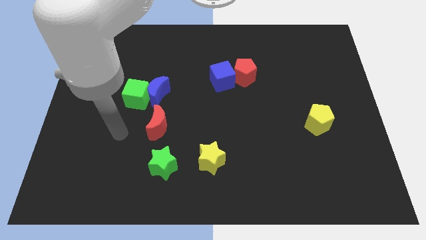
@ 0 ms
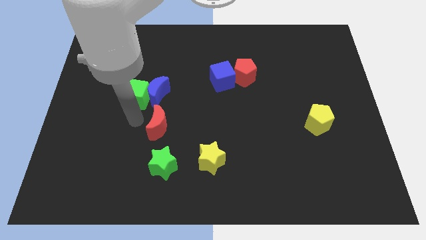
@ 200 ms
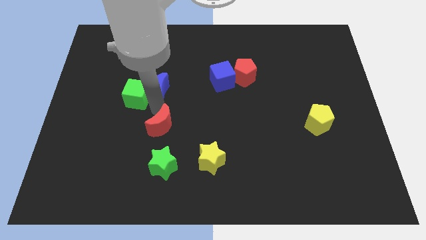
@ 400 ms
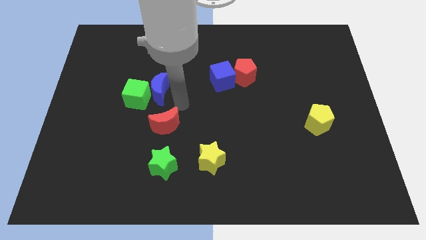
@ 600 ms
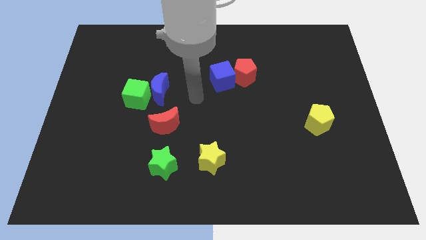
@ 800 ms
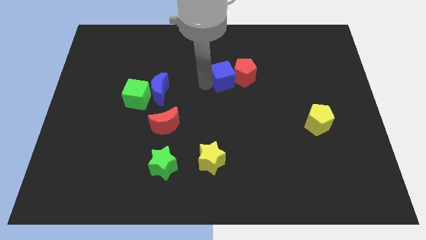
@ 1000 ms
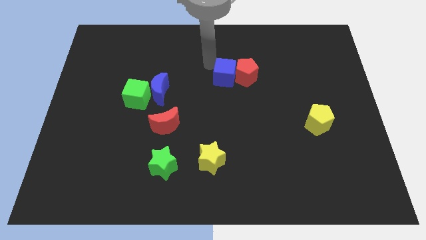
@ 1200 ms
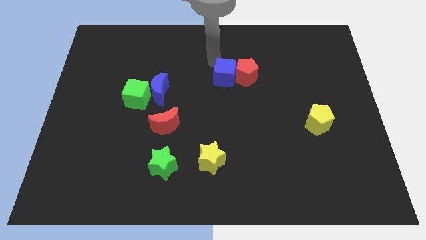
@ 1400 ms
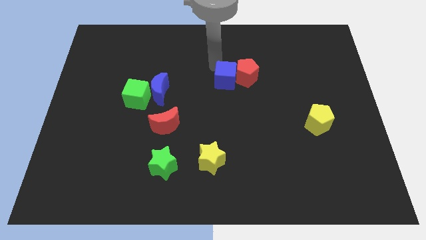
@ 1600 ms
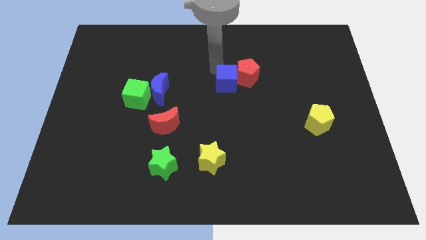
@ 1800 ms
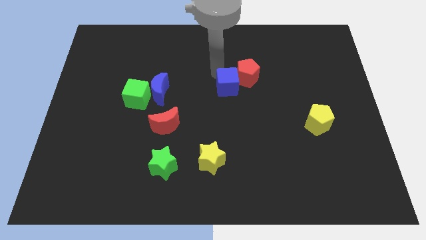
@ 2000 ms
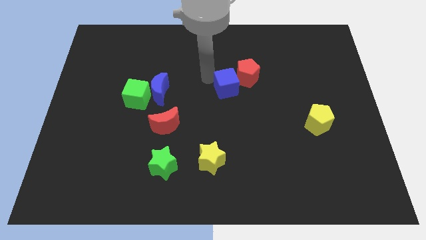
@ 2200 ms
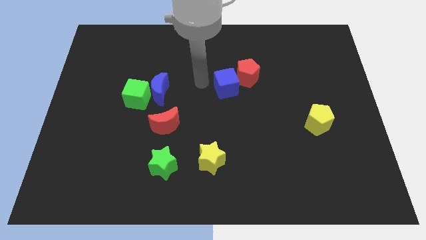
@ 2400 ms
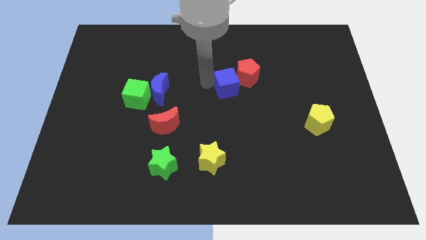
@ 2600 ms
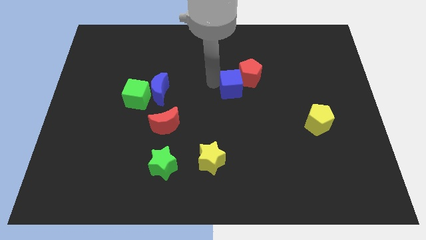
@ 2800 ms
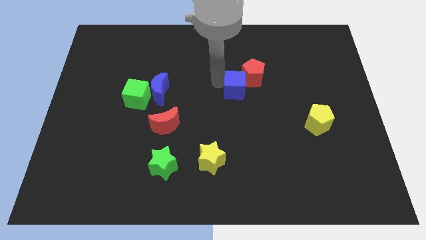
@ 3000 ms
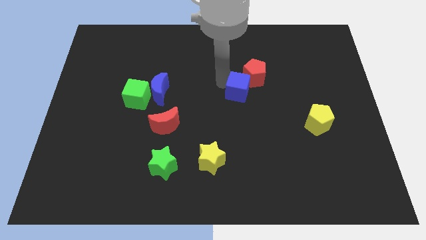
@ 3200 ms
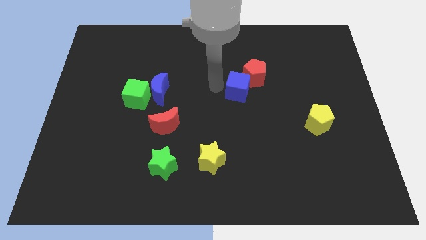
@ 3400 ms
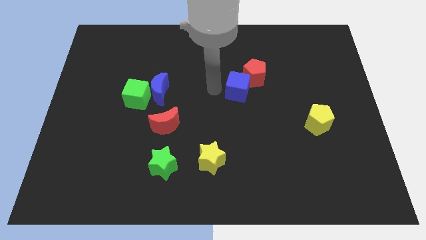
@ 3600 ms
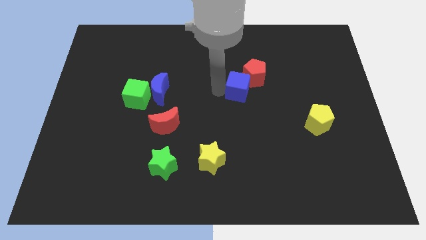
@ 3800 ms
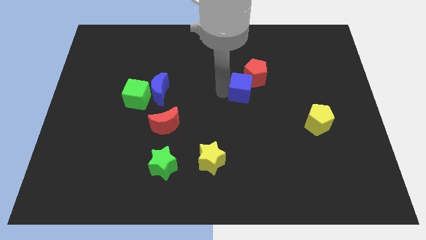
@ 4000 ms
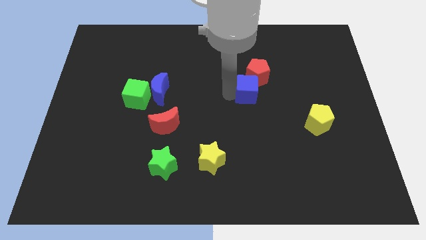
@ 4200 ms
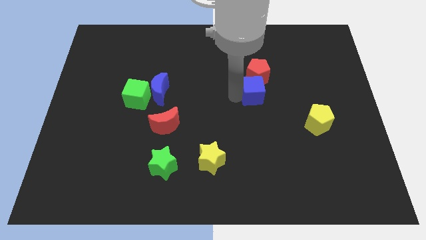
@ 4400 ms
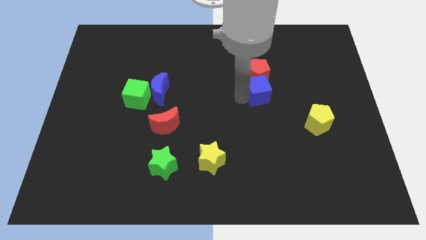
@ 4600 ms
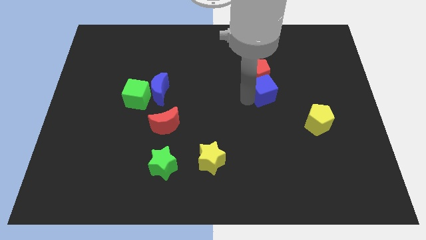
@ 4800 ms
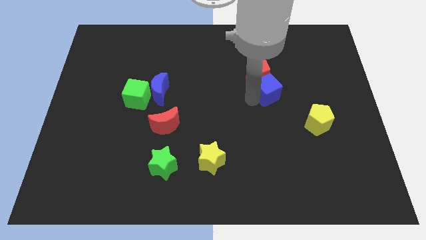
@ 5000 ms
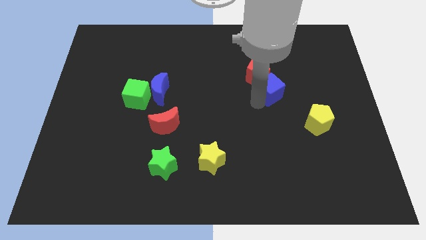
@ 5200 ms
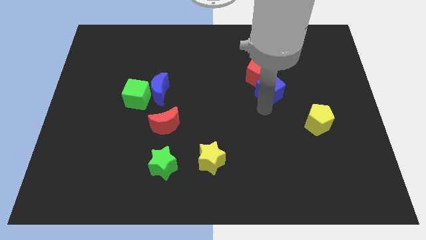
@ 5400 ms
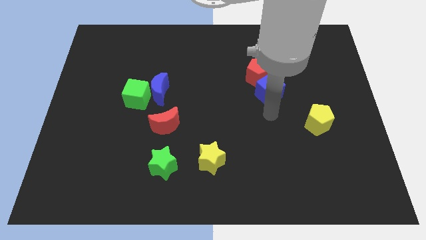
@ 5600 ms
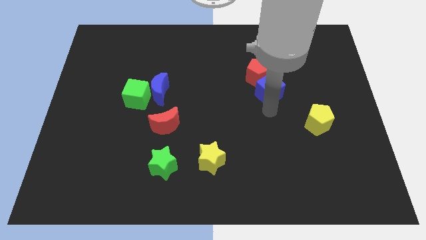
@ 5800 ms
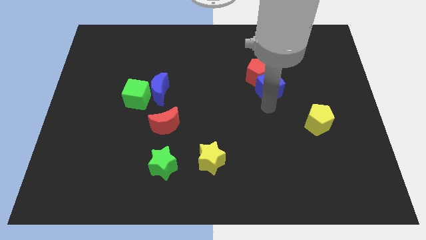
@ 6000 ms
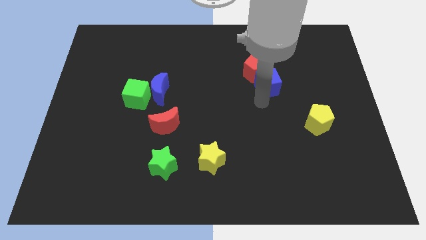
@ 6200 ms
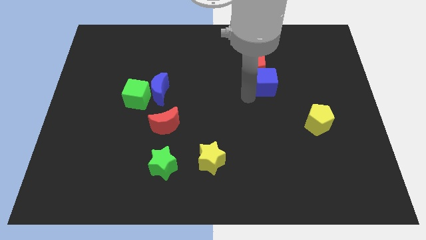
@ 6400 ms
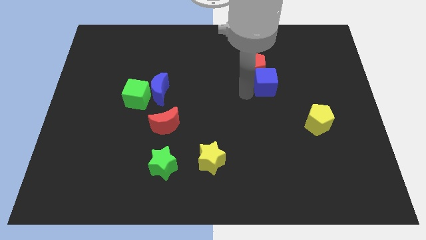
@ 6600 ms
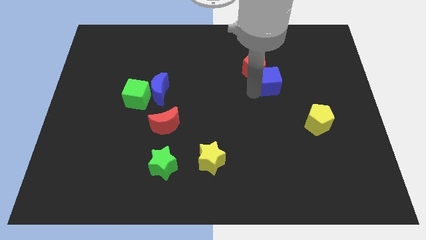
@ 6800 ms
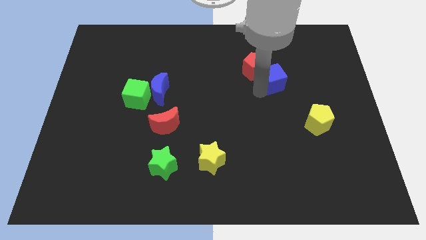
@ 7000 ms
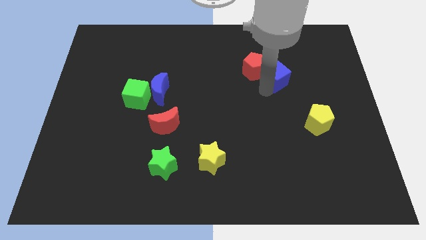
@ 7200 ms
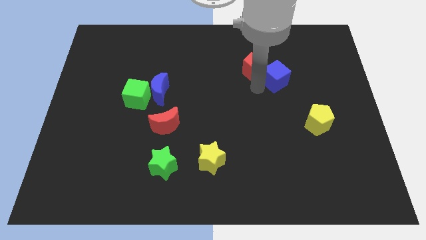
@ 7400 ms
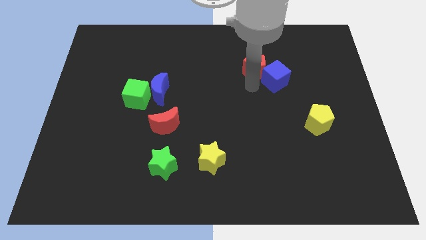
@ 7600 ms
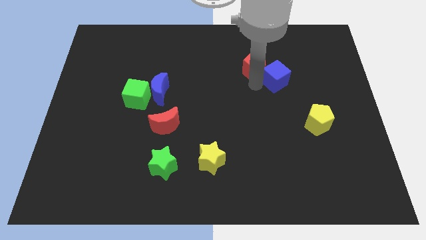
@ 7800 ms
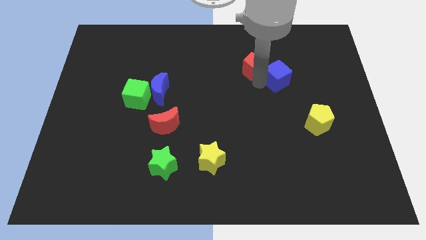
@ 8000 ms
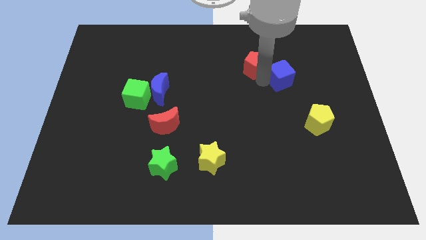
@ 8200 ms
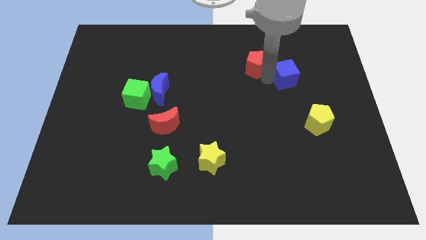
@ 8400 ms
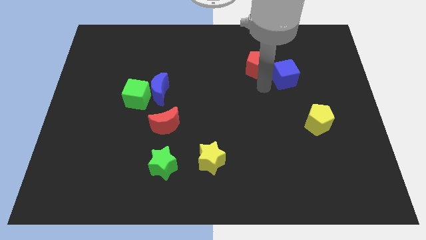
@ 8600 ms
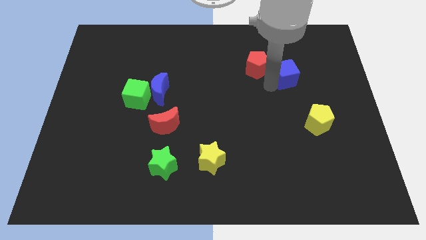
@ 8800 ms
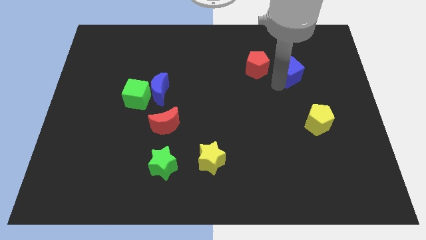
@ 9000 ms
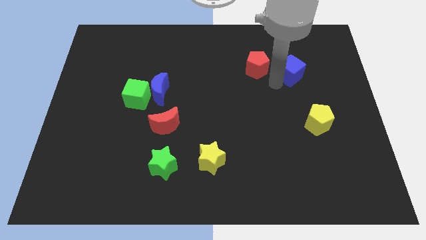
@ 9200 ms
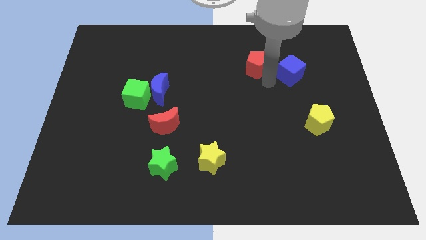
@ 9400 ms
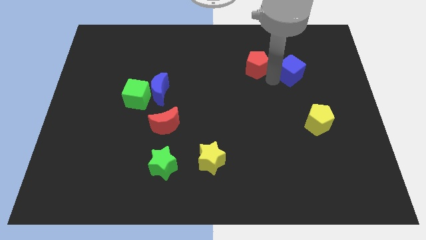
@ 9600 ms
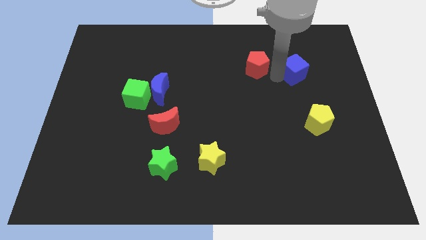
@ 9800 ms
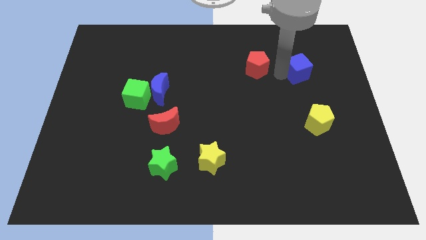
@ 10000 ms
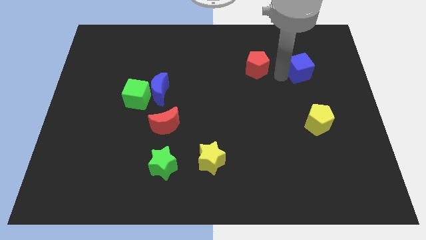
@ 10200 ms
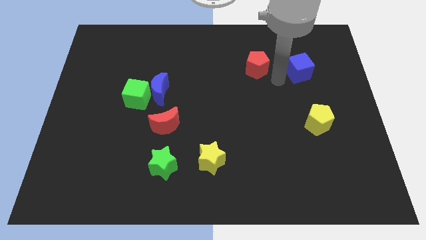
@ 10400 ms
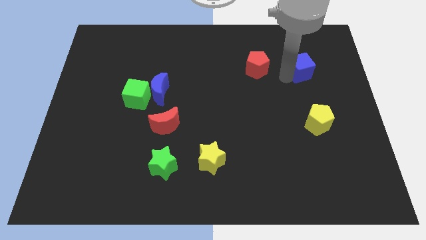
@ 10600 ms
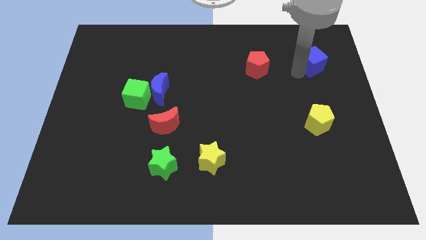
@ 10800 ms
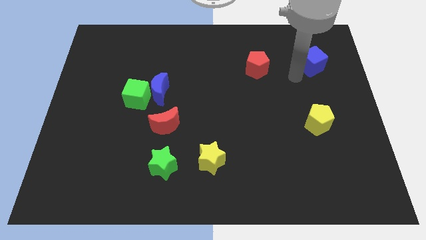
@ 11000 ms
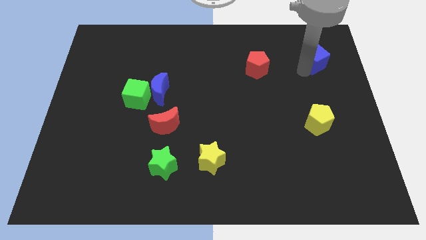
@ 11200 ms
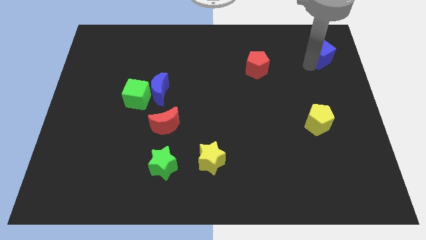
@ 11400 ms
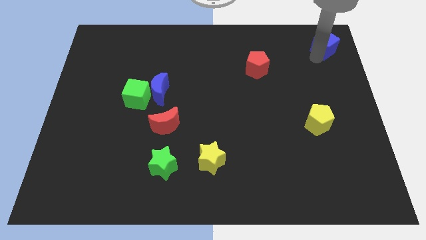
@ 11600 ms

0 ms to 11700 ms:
push the blue cube to the top right

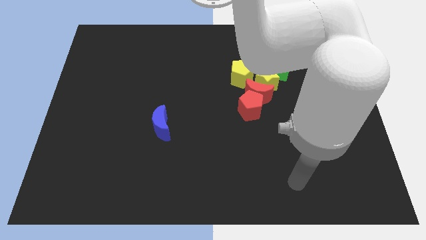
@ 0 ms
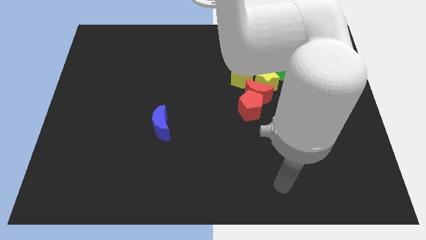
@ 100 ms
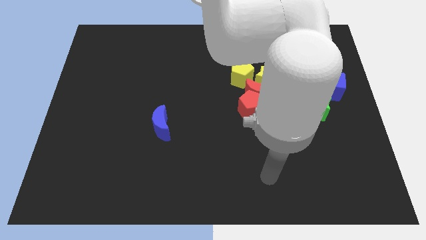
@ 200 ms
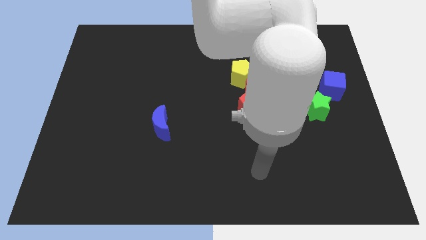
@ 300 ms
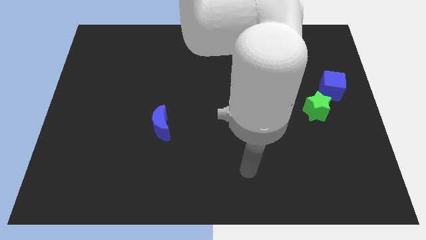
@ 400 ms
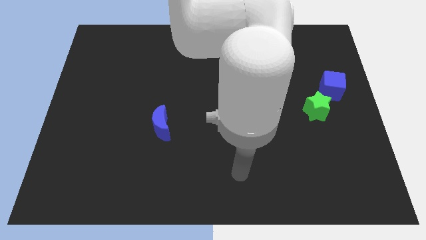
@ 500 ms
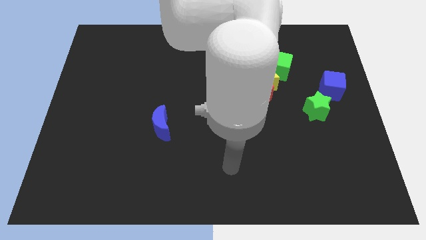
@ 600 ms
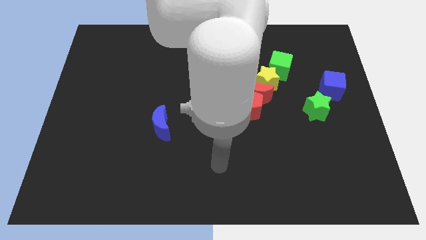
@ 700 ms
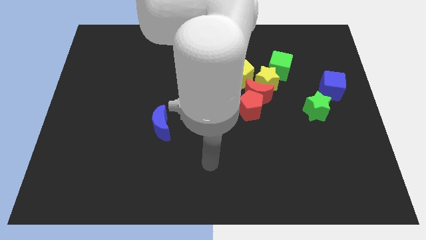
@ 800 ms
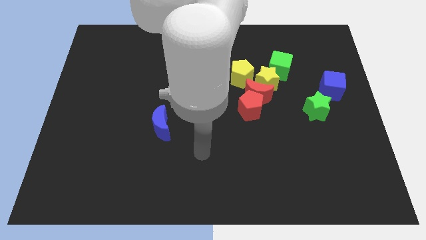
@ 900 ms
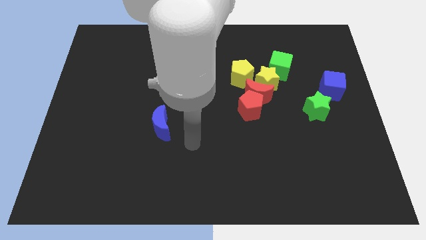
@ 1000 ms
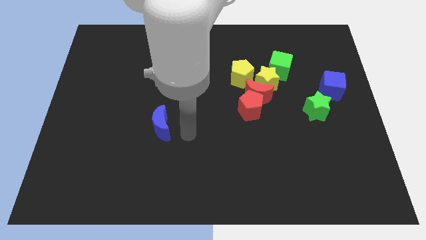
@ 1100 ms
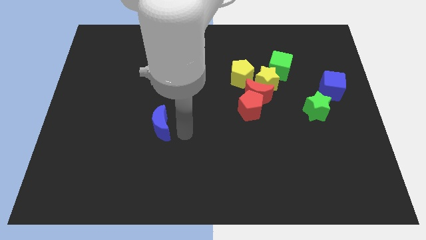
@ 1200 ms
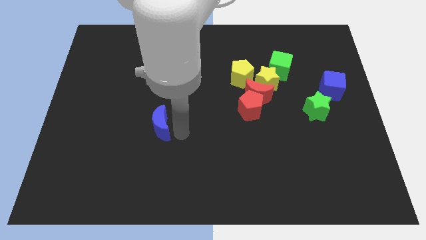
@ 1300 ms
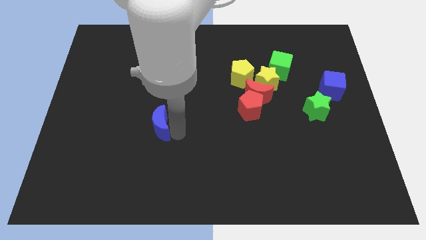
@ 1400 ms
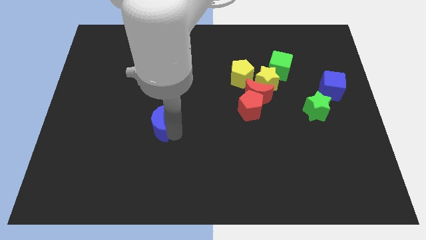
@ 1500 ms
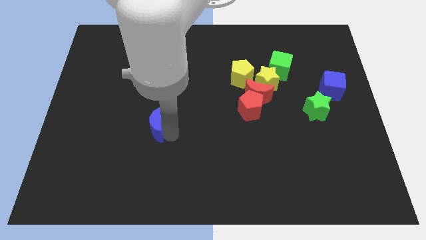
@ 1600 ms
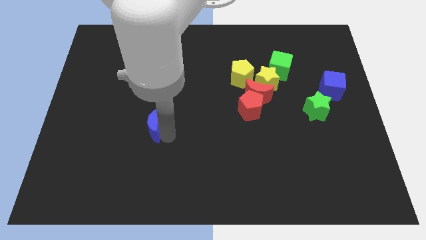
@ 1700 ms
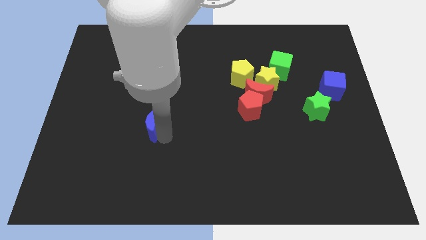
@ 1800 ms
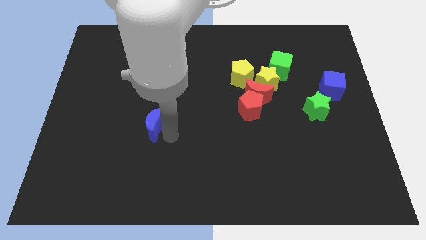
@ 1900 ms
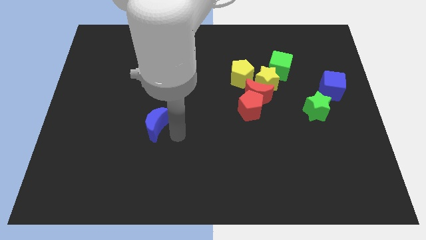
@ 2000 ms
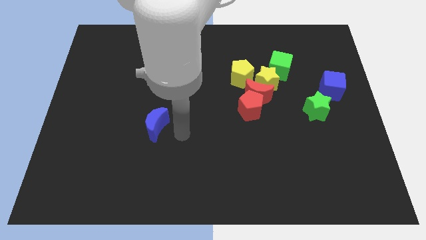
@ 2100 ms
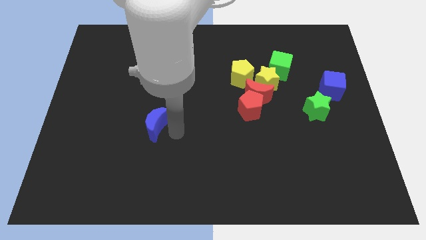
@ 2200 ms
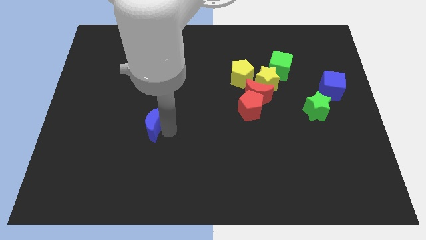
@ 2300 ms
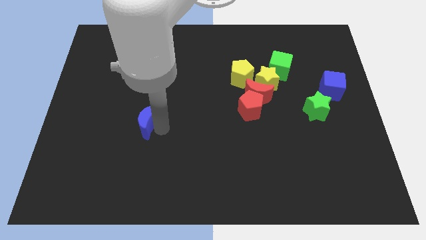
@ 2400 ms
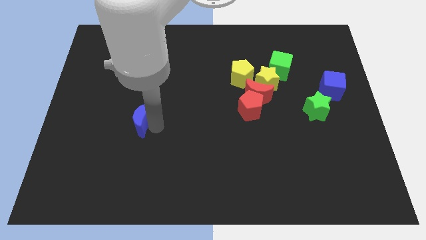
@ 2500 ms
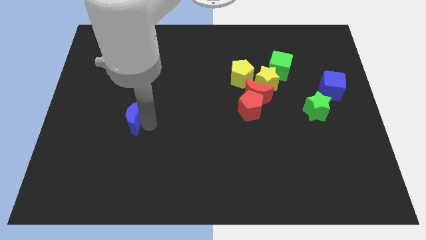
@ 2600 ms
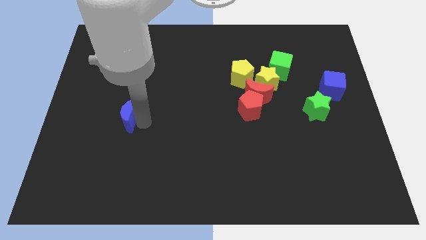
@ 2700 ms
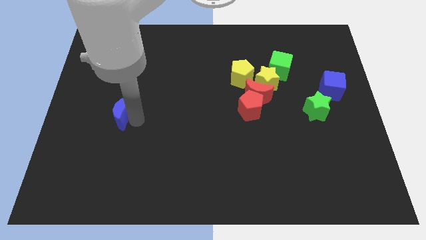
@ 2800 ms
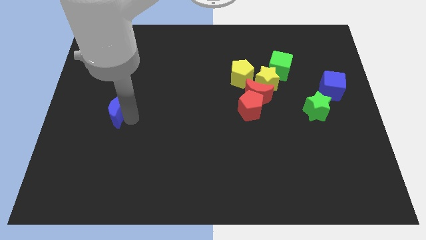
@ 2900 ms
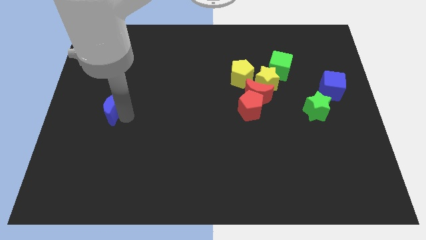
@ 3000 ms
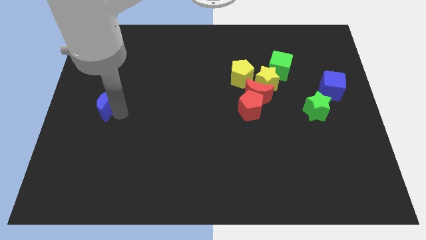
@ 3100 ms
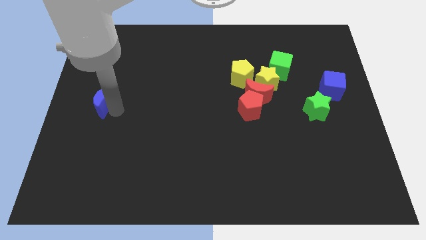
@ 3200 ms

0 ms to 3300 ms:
put the blue moon to the center left
